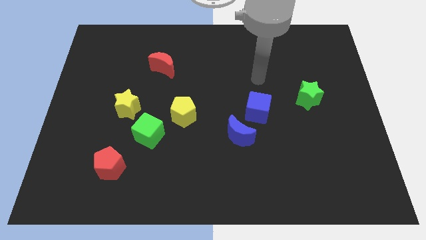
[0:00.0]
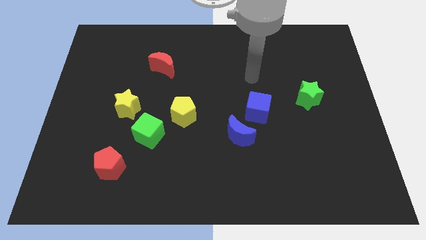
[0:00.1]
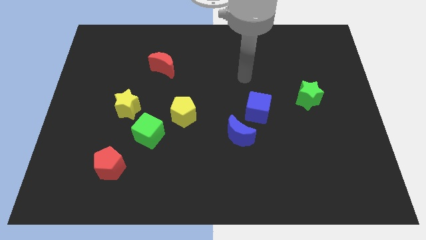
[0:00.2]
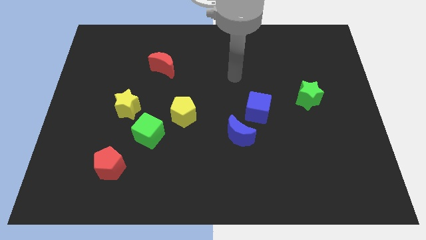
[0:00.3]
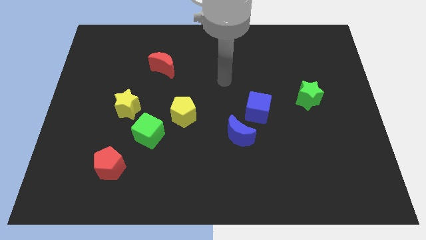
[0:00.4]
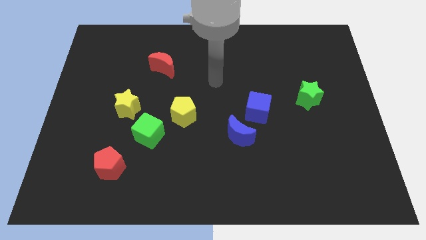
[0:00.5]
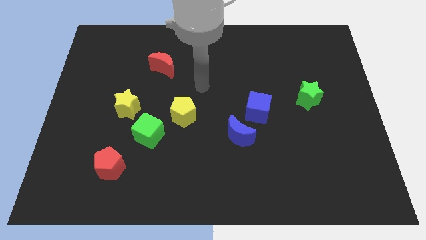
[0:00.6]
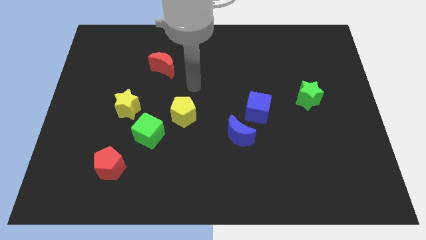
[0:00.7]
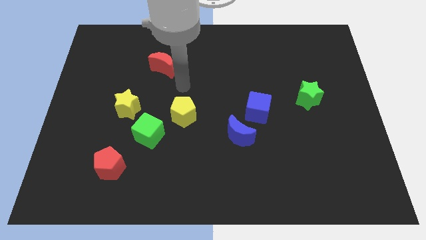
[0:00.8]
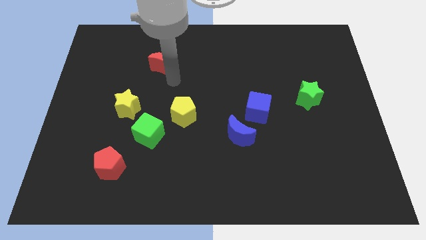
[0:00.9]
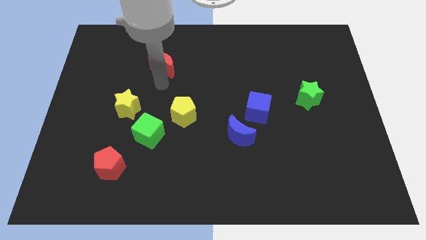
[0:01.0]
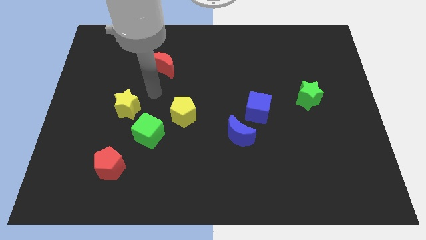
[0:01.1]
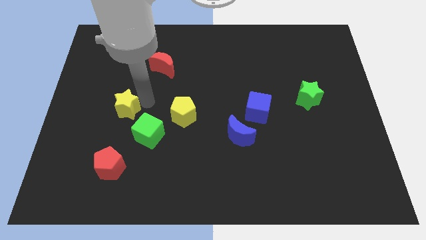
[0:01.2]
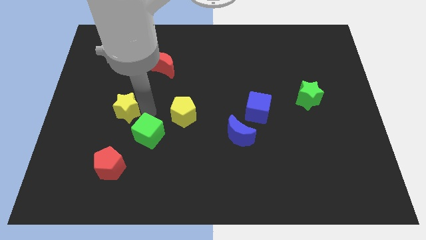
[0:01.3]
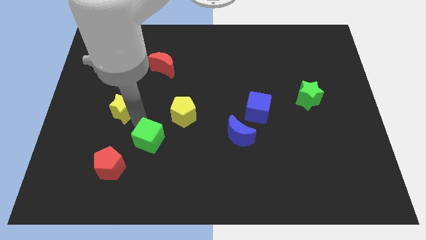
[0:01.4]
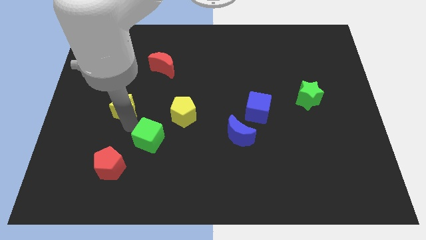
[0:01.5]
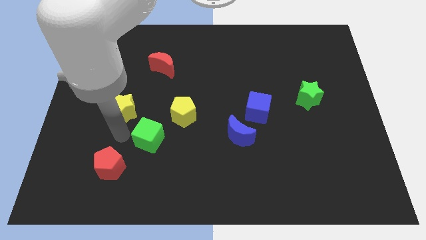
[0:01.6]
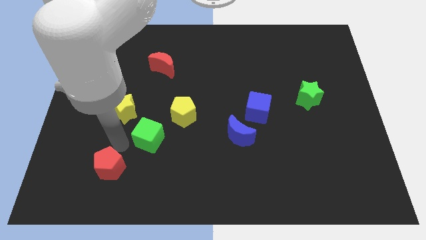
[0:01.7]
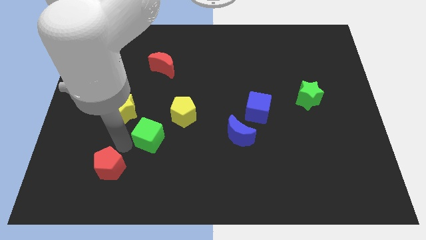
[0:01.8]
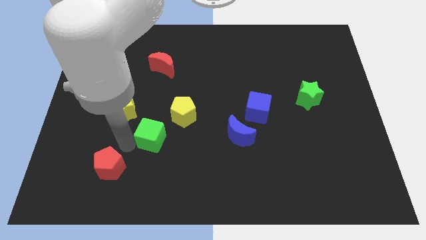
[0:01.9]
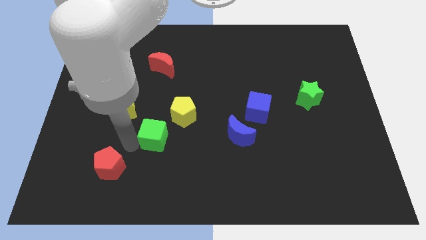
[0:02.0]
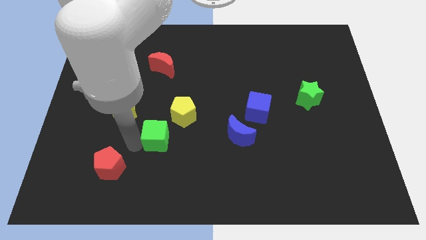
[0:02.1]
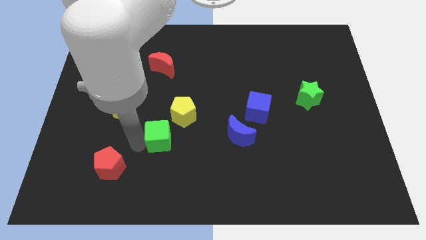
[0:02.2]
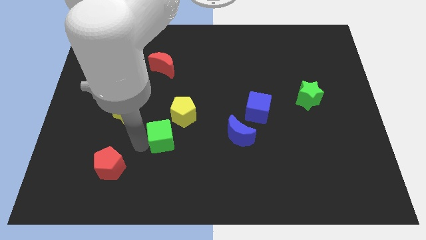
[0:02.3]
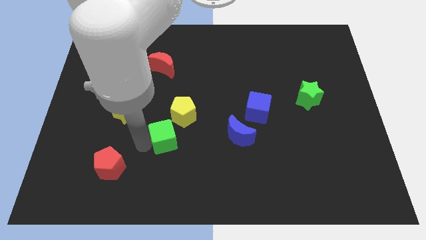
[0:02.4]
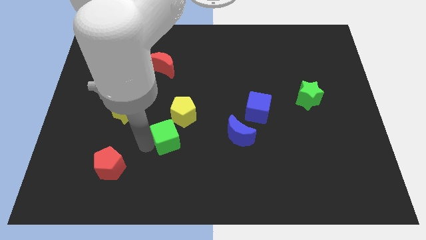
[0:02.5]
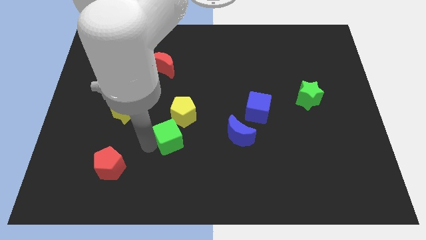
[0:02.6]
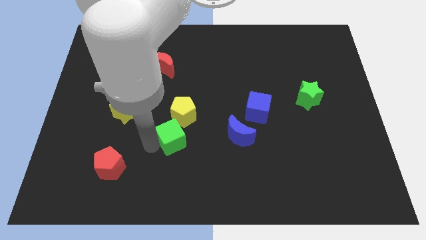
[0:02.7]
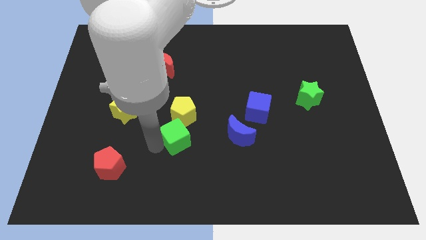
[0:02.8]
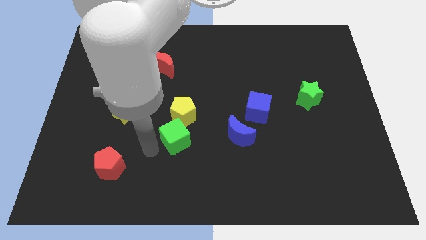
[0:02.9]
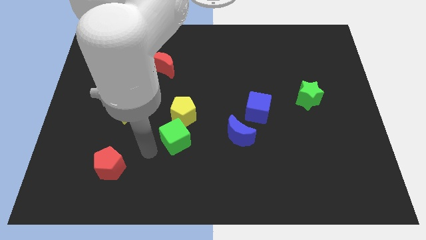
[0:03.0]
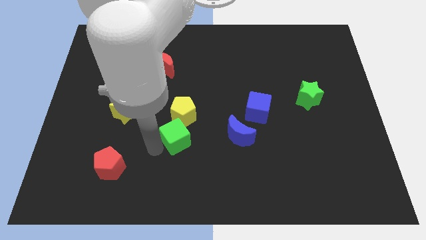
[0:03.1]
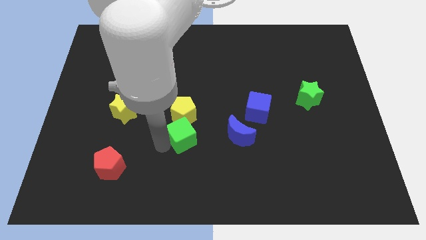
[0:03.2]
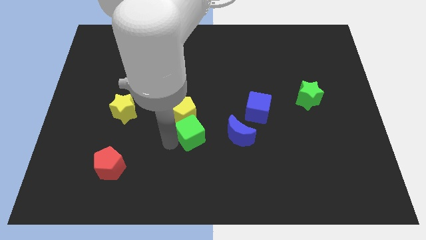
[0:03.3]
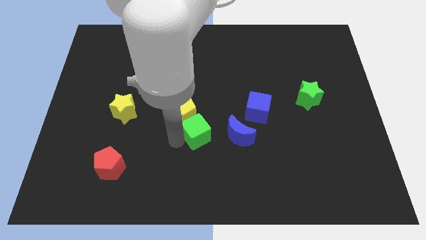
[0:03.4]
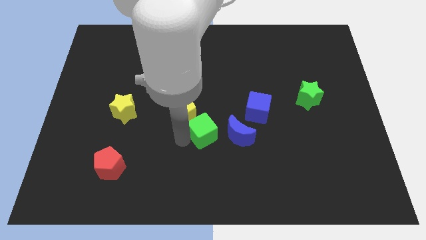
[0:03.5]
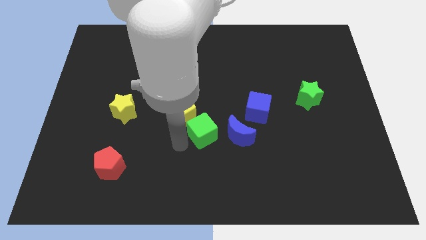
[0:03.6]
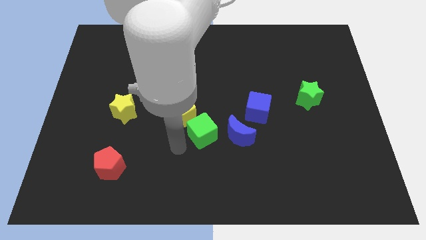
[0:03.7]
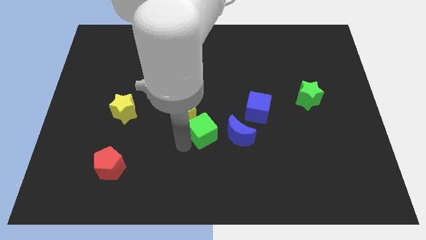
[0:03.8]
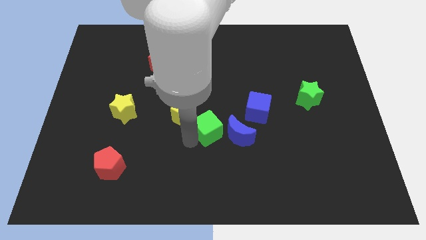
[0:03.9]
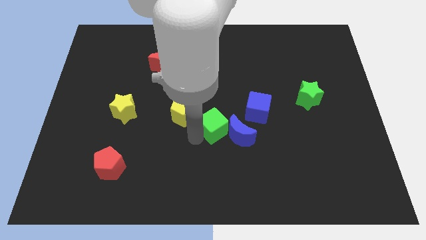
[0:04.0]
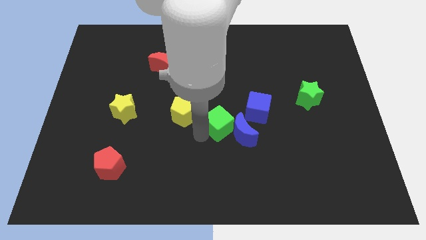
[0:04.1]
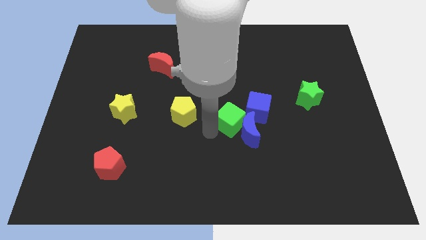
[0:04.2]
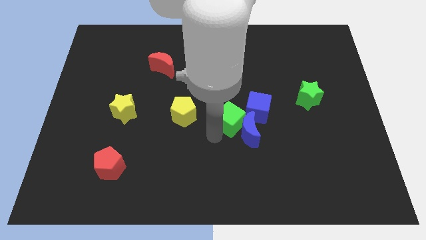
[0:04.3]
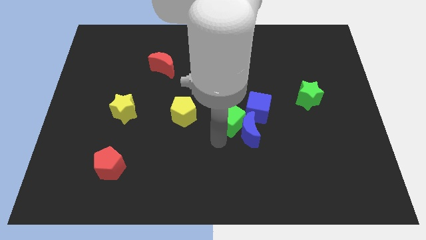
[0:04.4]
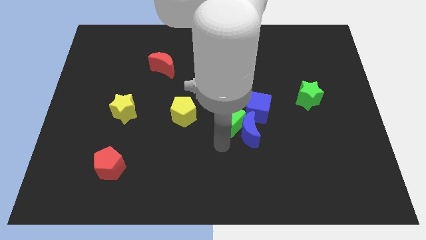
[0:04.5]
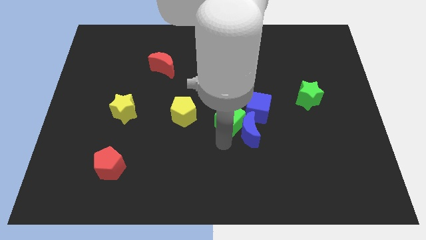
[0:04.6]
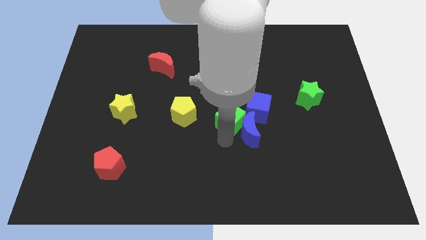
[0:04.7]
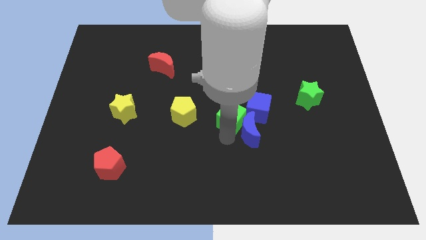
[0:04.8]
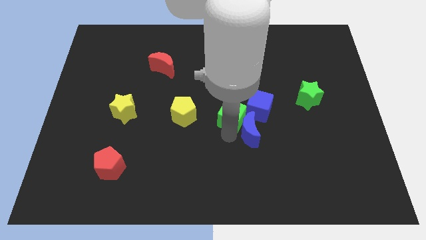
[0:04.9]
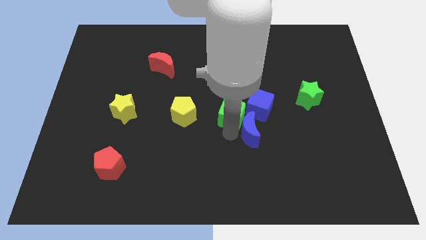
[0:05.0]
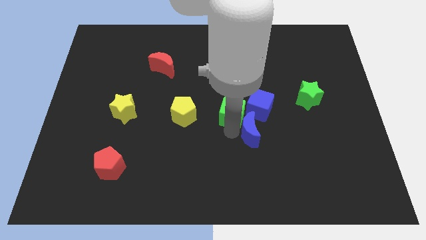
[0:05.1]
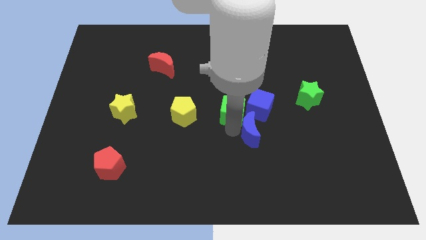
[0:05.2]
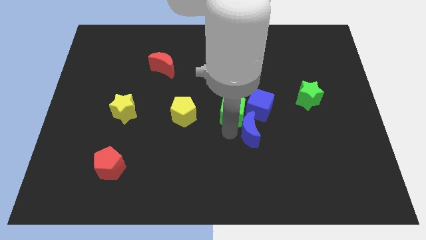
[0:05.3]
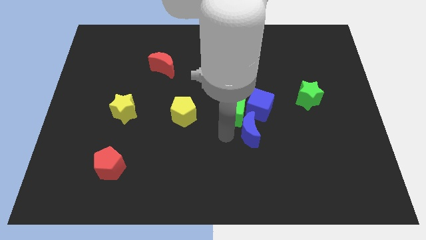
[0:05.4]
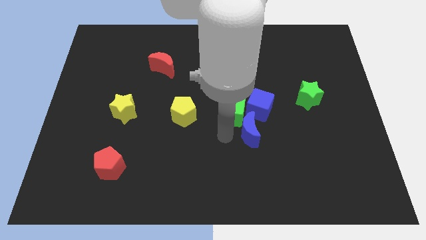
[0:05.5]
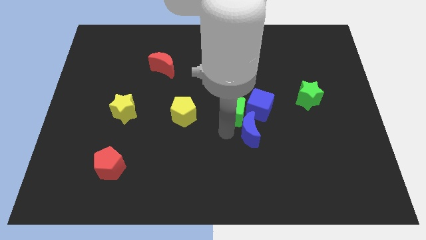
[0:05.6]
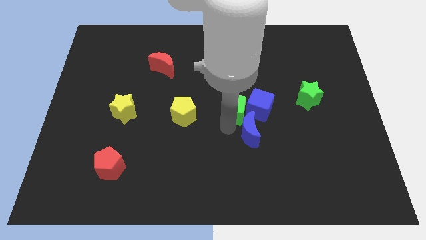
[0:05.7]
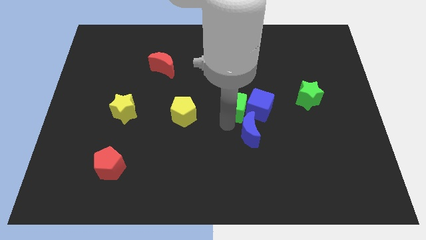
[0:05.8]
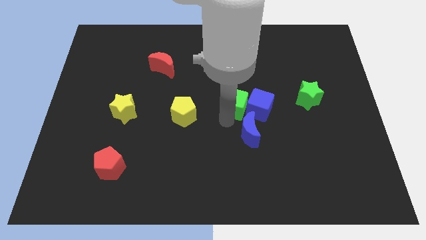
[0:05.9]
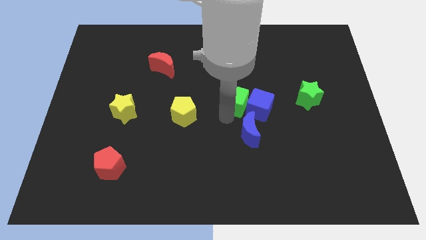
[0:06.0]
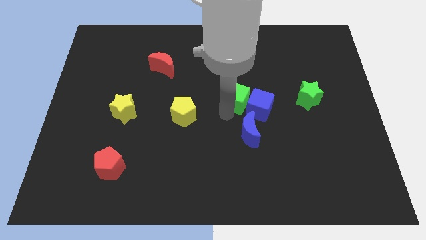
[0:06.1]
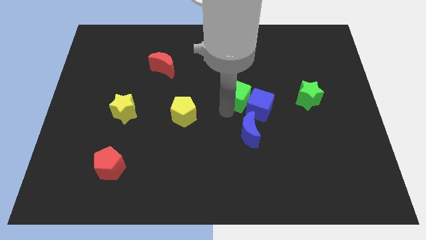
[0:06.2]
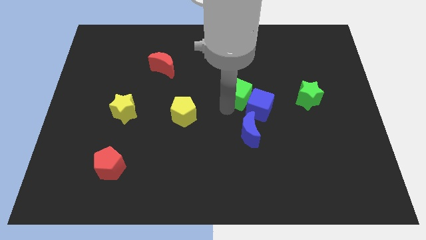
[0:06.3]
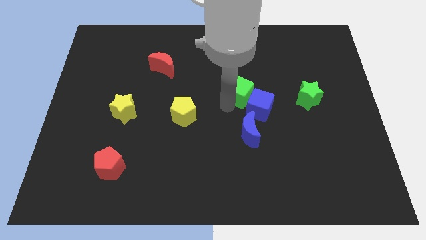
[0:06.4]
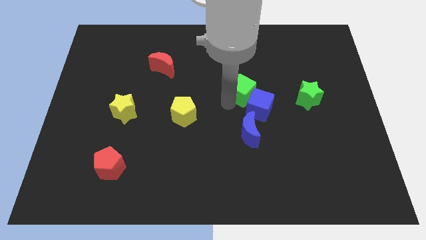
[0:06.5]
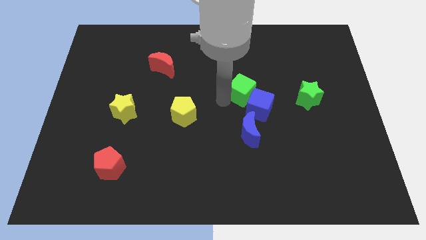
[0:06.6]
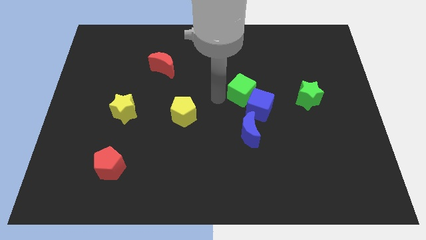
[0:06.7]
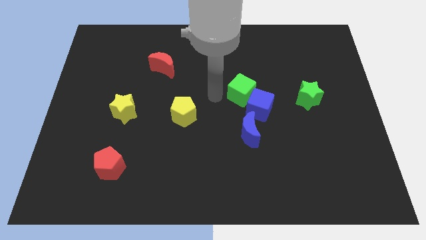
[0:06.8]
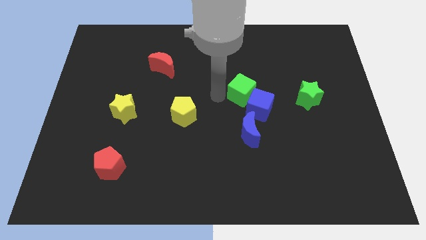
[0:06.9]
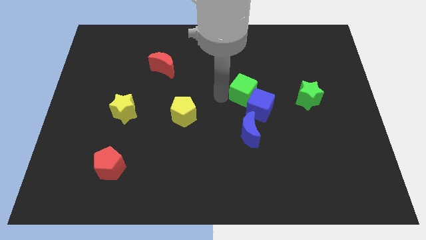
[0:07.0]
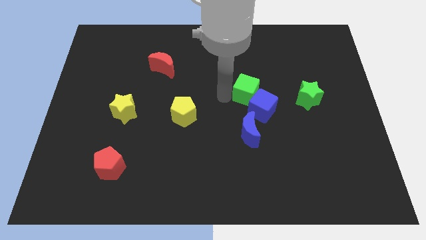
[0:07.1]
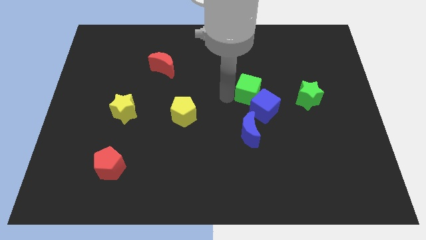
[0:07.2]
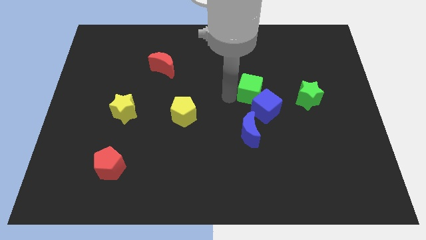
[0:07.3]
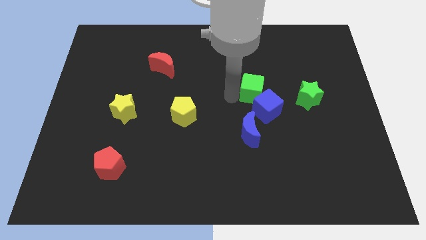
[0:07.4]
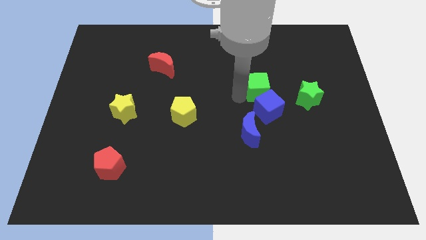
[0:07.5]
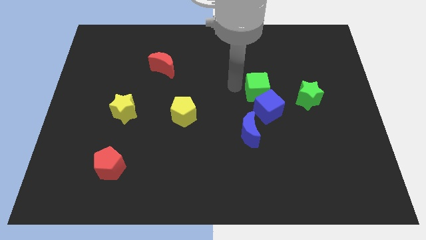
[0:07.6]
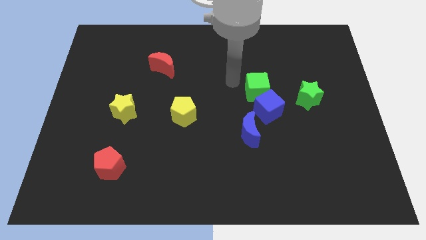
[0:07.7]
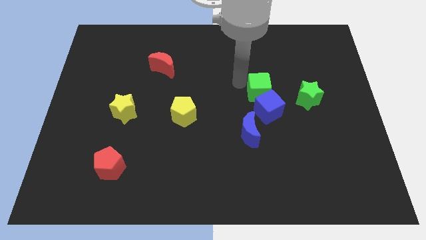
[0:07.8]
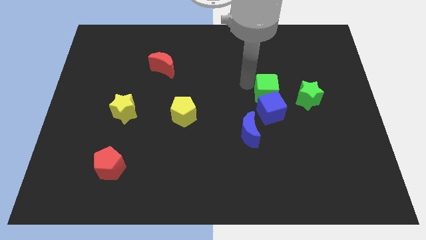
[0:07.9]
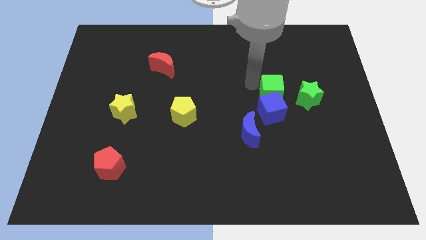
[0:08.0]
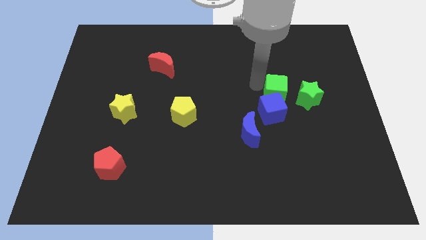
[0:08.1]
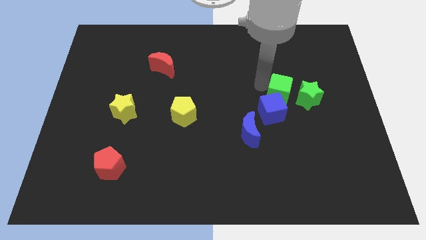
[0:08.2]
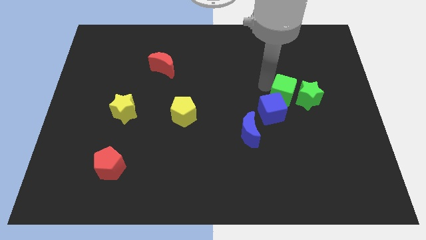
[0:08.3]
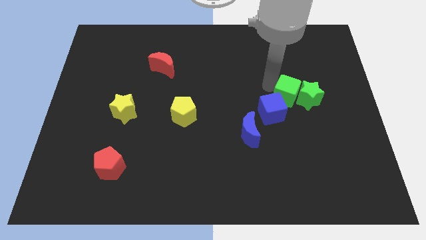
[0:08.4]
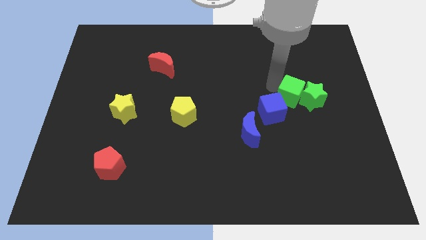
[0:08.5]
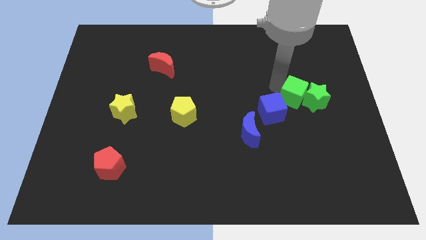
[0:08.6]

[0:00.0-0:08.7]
push the green cube right of the blue cube
